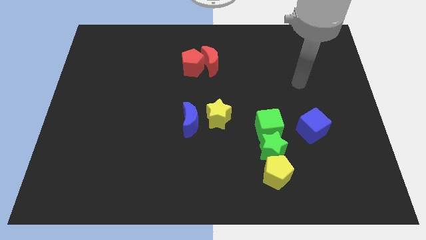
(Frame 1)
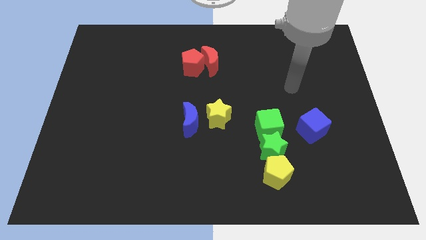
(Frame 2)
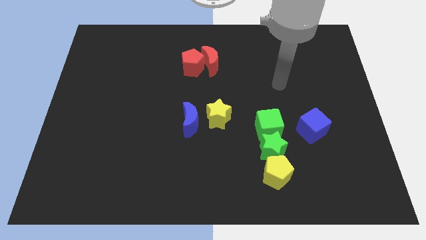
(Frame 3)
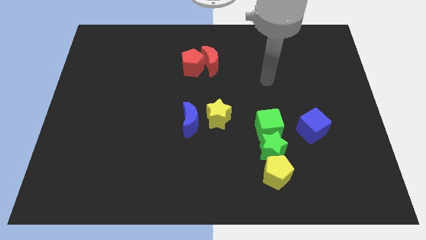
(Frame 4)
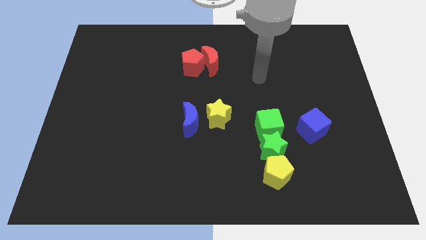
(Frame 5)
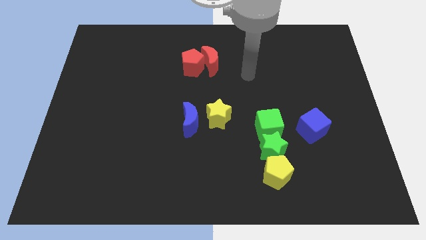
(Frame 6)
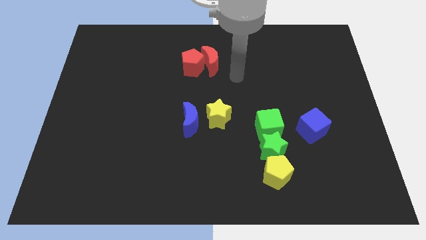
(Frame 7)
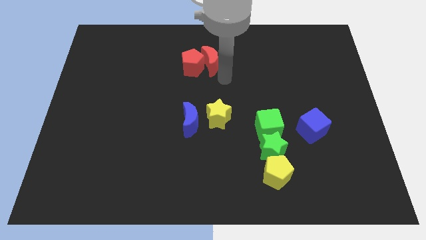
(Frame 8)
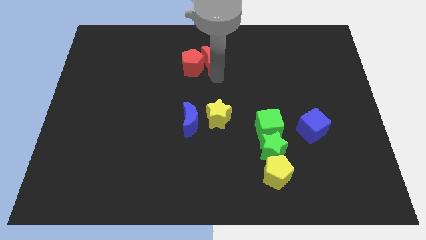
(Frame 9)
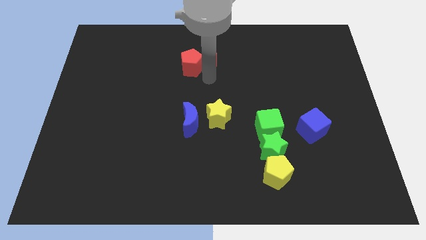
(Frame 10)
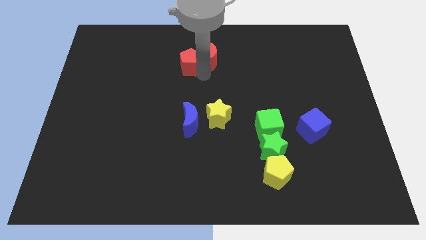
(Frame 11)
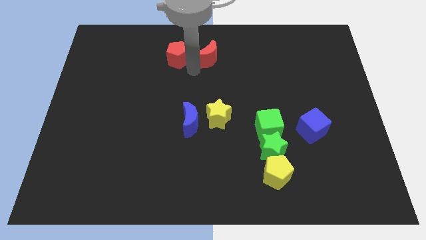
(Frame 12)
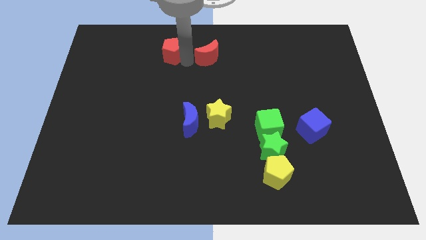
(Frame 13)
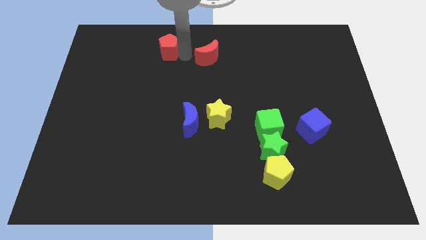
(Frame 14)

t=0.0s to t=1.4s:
move the red moon away from the red pentagon

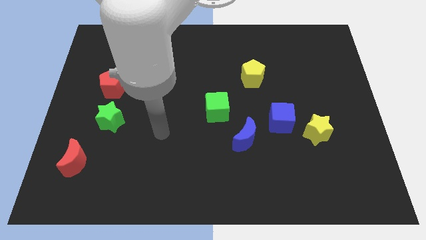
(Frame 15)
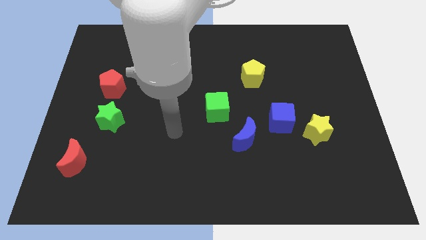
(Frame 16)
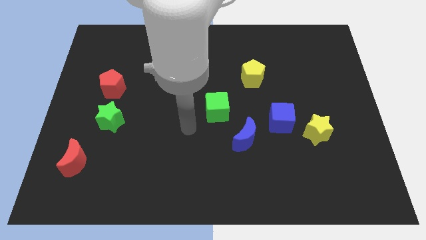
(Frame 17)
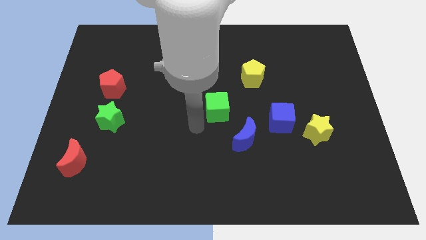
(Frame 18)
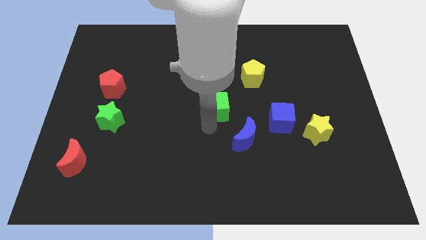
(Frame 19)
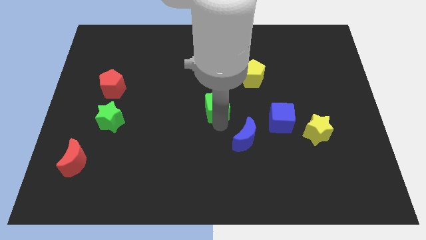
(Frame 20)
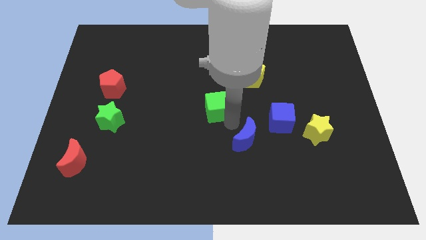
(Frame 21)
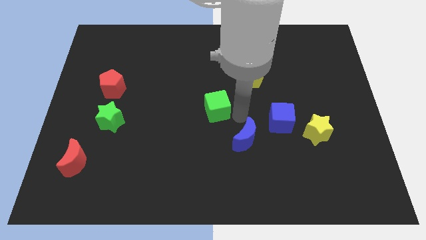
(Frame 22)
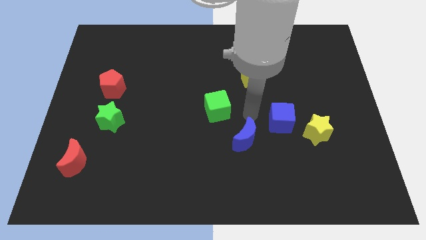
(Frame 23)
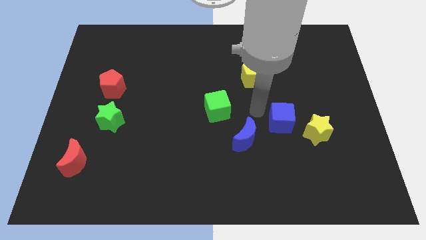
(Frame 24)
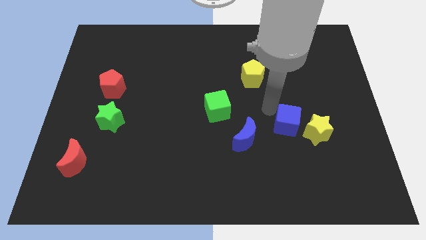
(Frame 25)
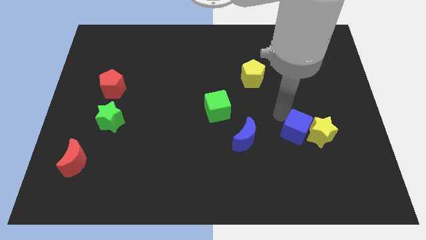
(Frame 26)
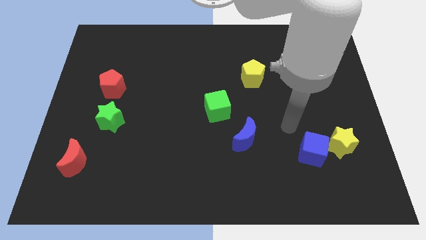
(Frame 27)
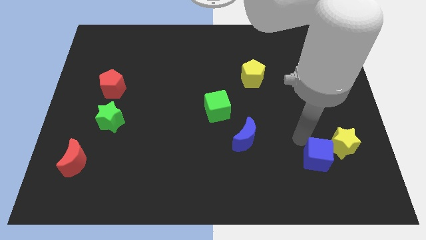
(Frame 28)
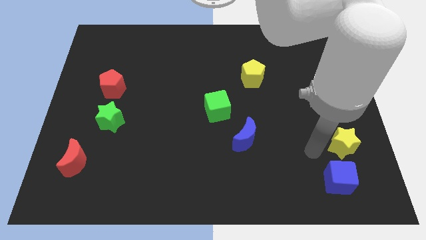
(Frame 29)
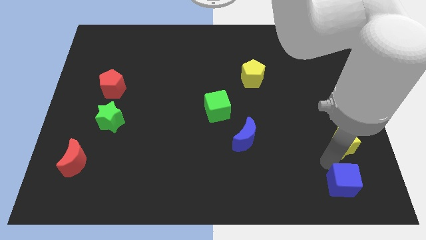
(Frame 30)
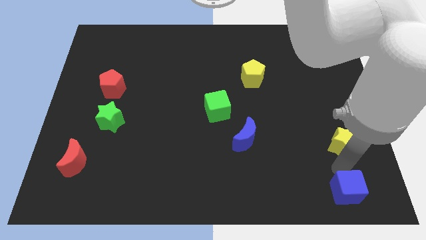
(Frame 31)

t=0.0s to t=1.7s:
pull the yellow star apart from the blue cube

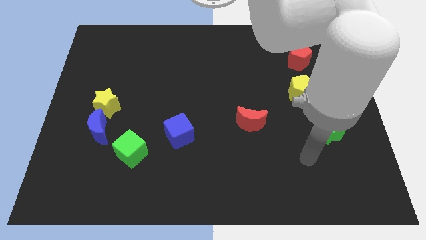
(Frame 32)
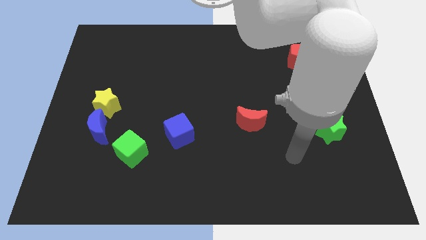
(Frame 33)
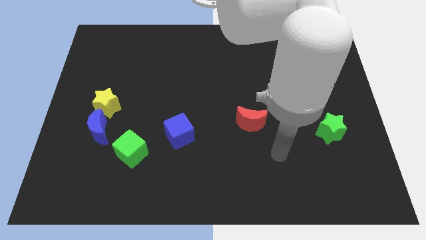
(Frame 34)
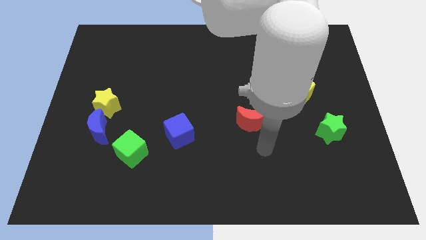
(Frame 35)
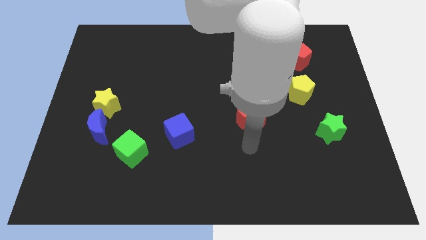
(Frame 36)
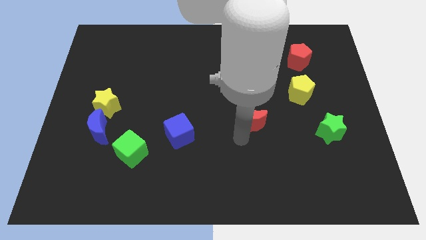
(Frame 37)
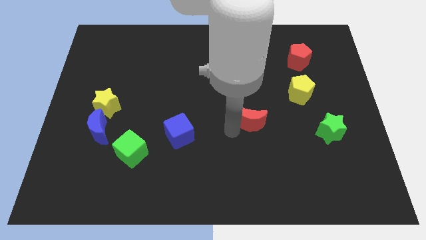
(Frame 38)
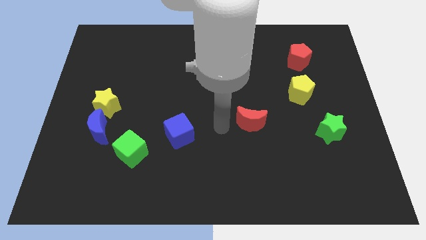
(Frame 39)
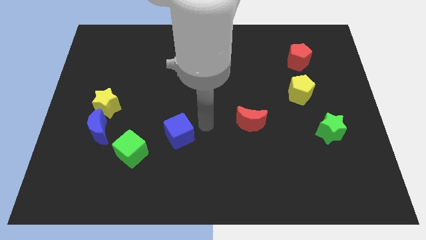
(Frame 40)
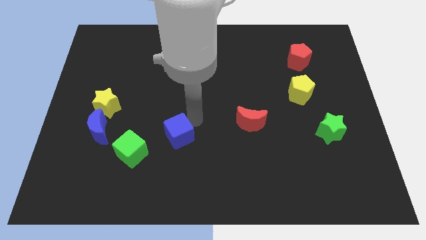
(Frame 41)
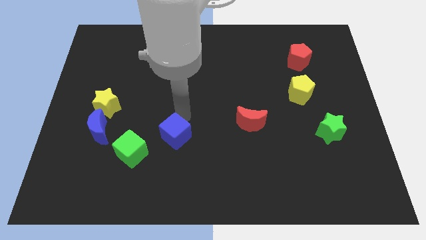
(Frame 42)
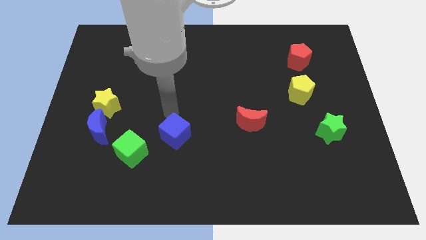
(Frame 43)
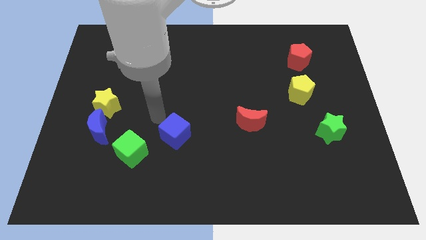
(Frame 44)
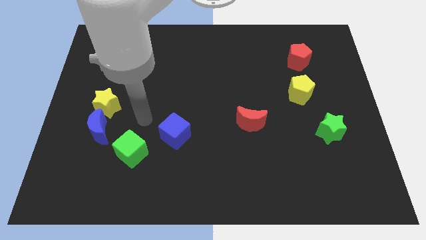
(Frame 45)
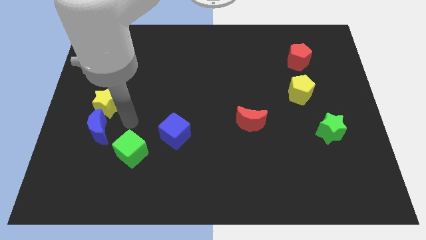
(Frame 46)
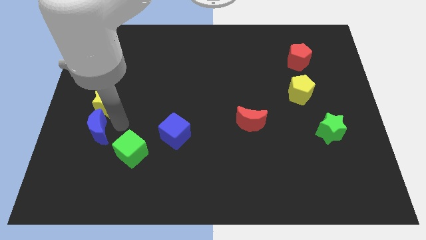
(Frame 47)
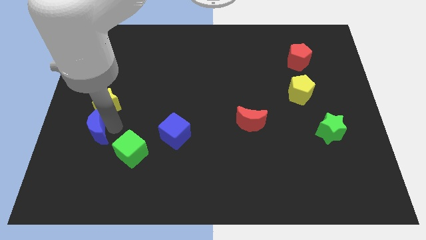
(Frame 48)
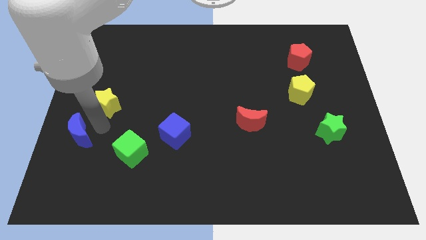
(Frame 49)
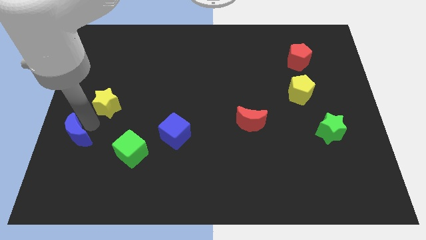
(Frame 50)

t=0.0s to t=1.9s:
separate the yellow star from the blue moon

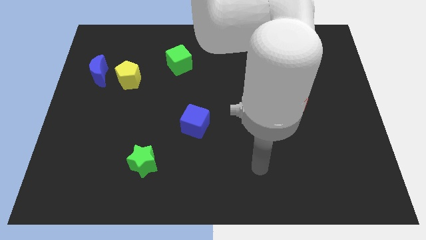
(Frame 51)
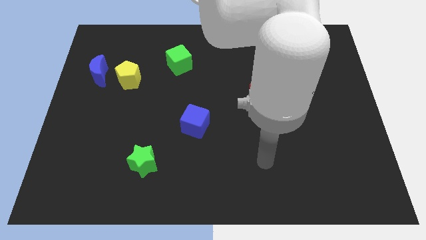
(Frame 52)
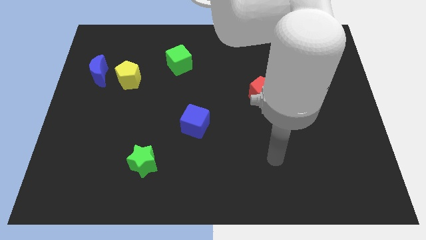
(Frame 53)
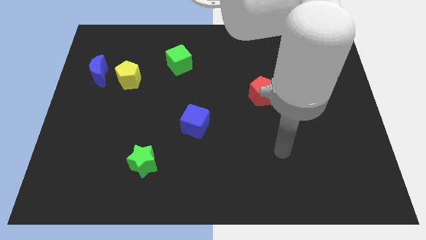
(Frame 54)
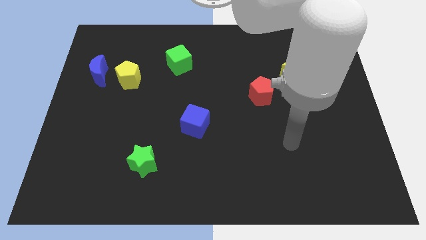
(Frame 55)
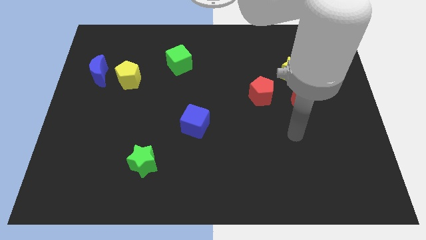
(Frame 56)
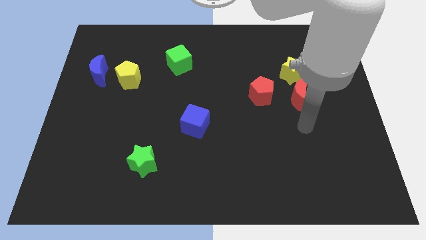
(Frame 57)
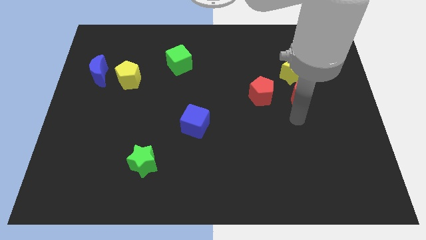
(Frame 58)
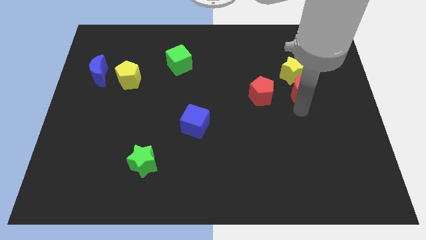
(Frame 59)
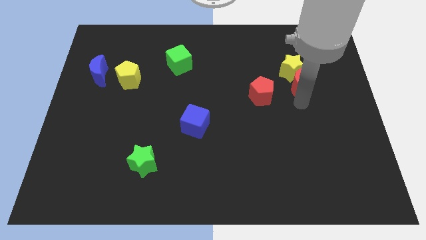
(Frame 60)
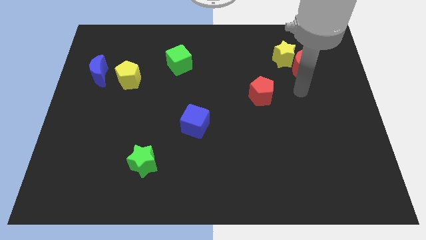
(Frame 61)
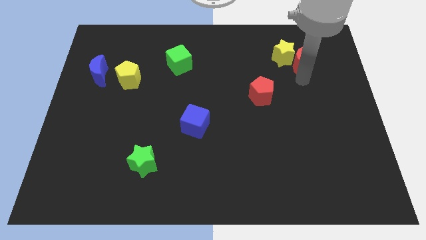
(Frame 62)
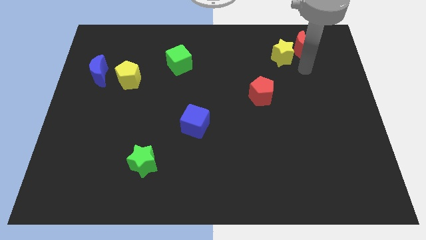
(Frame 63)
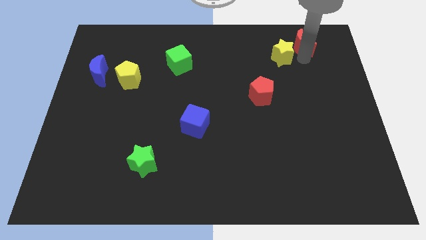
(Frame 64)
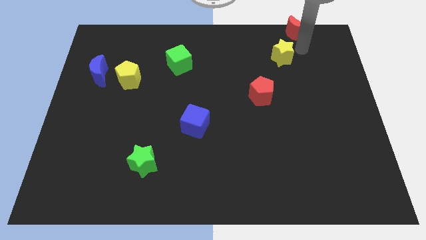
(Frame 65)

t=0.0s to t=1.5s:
move the yellow star away from the red moon

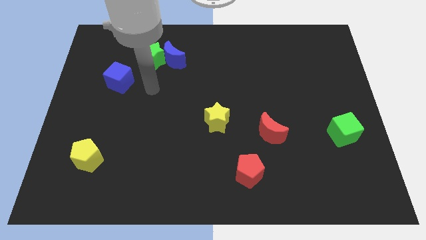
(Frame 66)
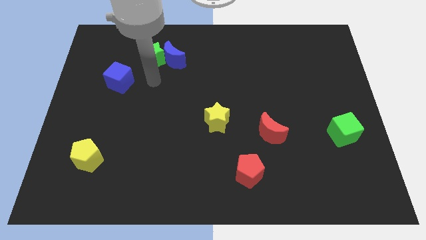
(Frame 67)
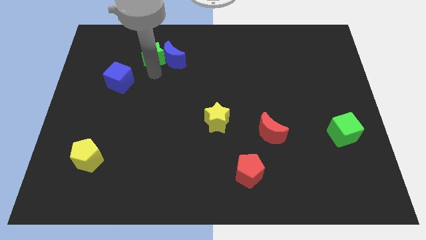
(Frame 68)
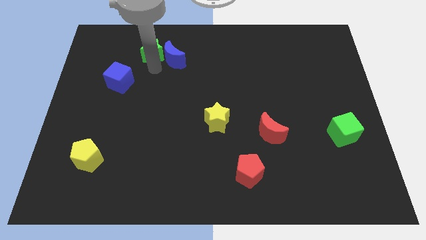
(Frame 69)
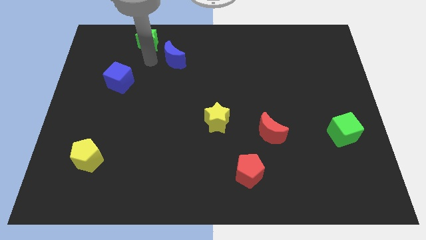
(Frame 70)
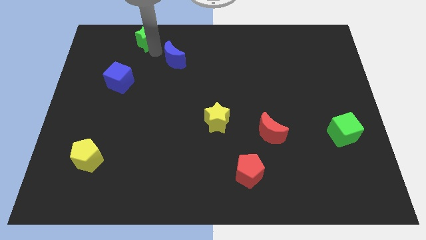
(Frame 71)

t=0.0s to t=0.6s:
move the blue moon away from the green star

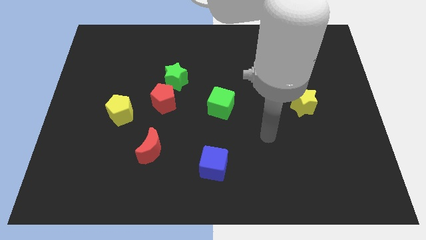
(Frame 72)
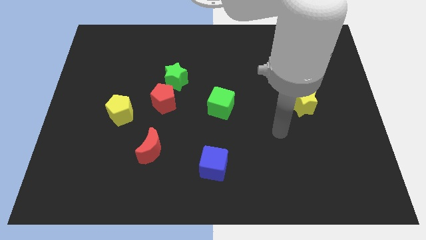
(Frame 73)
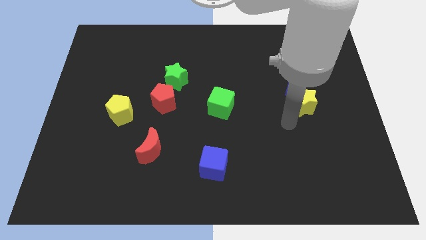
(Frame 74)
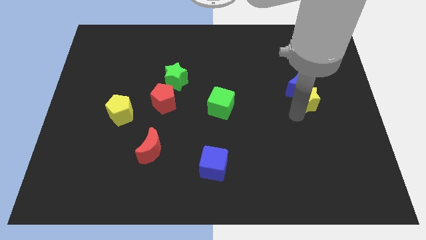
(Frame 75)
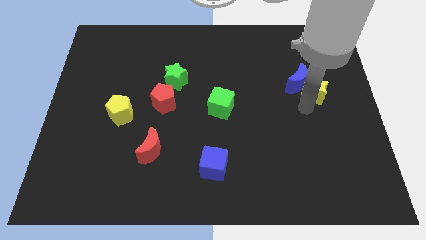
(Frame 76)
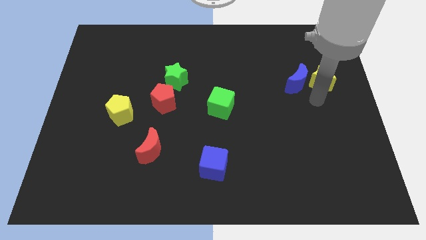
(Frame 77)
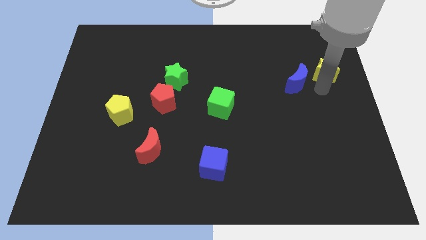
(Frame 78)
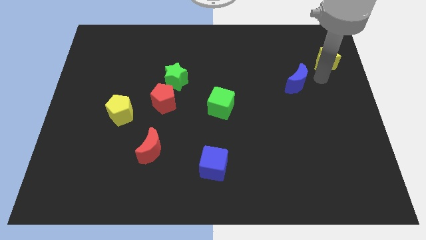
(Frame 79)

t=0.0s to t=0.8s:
separate the blue moon from the yellow star

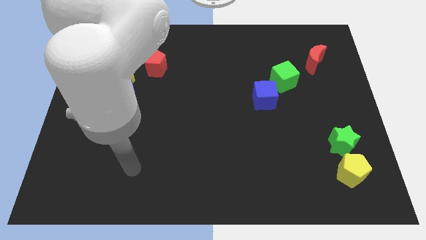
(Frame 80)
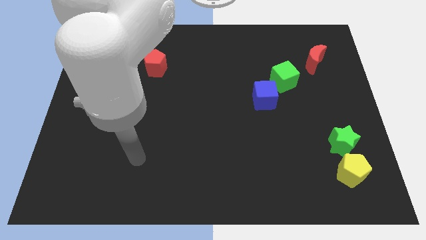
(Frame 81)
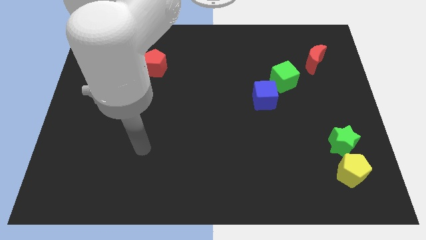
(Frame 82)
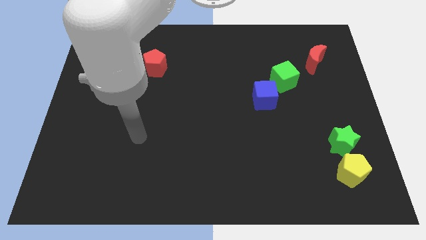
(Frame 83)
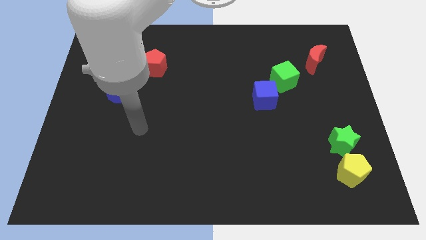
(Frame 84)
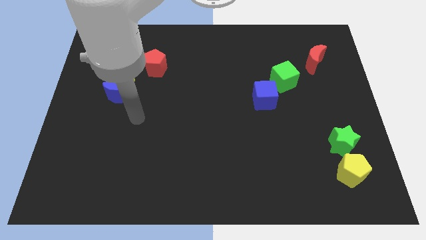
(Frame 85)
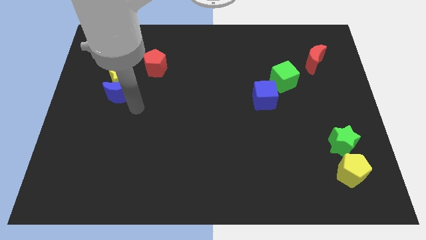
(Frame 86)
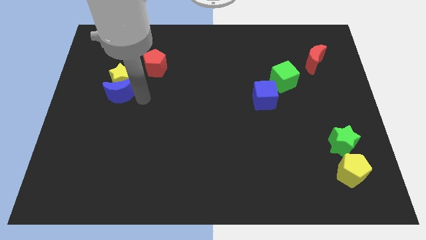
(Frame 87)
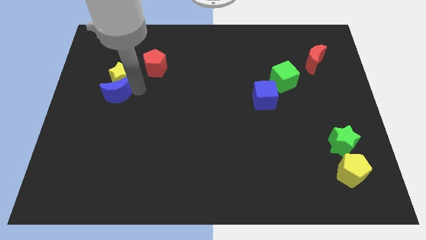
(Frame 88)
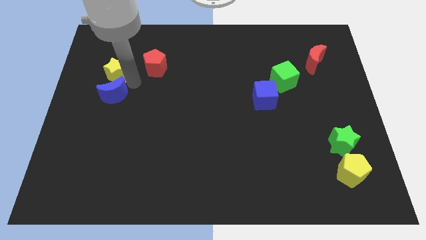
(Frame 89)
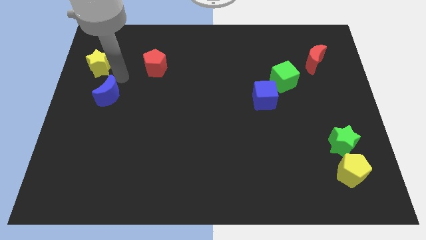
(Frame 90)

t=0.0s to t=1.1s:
move the blue moon away from the yellow star

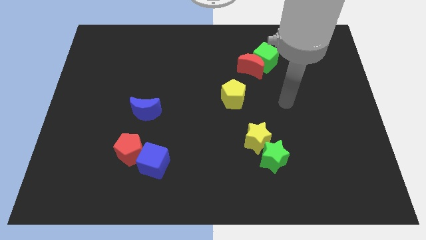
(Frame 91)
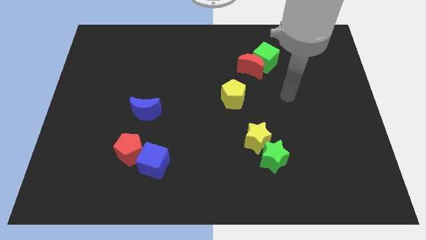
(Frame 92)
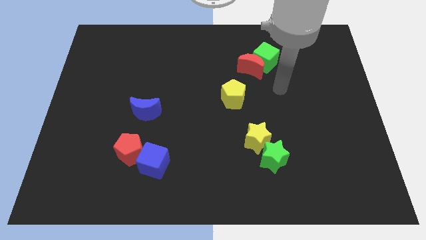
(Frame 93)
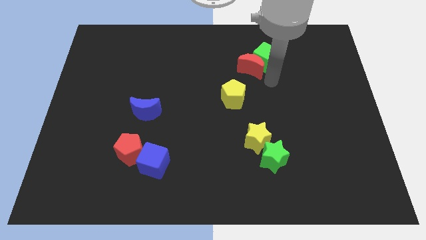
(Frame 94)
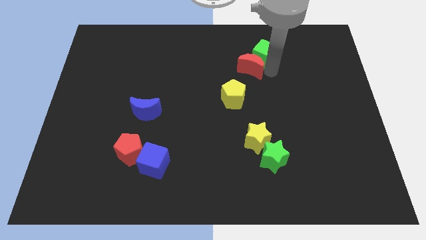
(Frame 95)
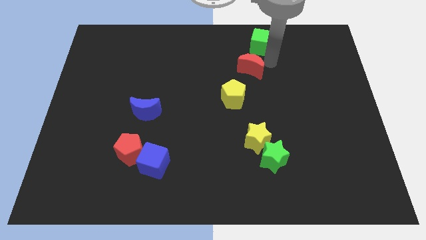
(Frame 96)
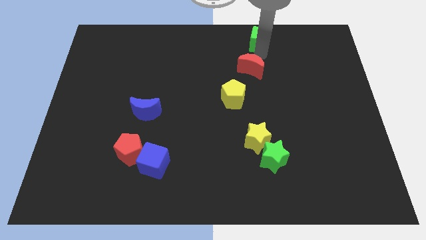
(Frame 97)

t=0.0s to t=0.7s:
pull the red moon apart from the green cube
